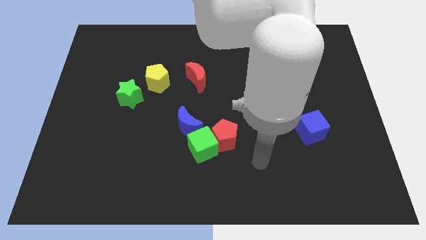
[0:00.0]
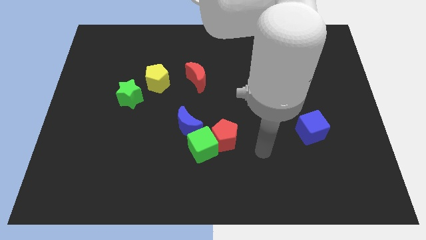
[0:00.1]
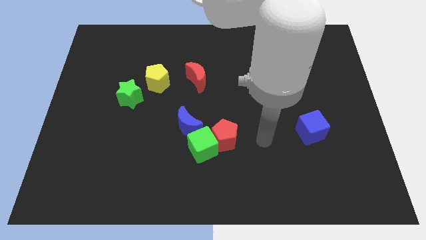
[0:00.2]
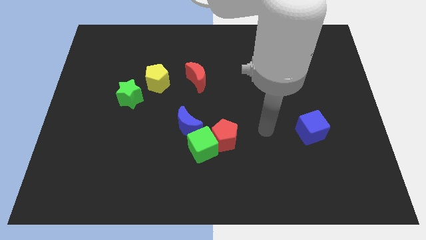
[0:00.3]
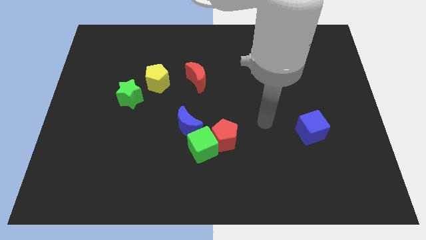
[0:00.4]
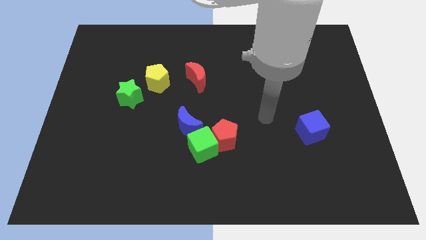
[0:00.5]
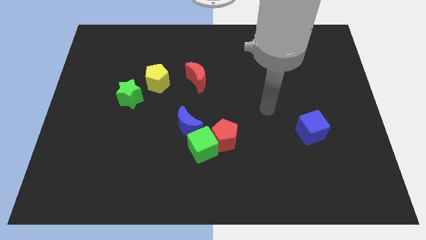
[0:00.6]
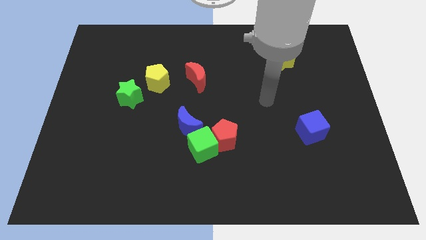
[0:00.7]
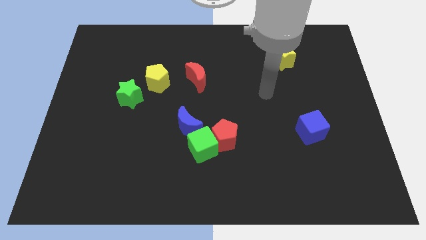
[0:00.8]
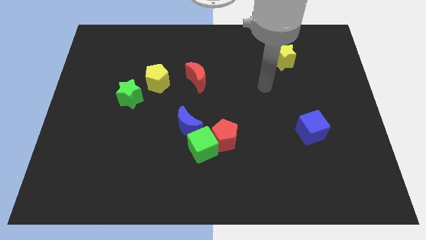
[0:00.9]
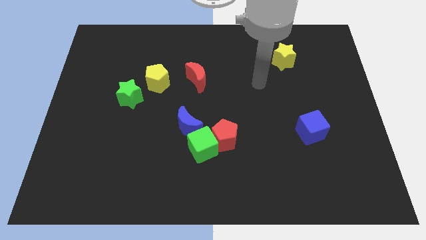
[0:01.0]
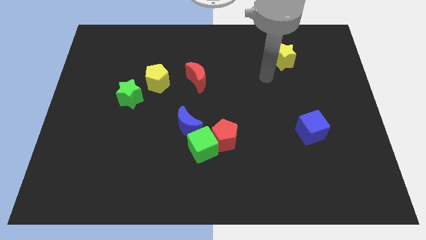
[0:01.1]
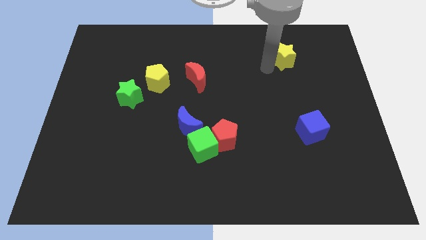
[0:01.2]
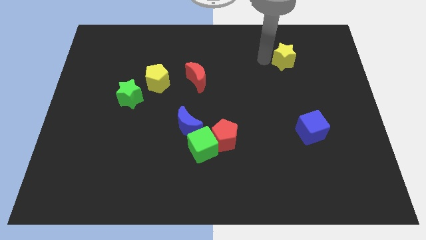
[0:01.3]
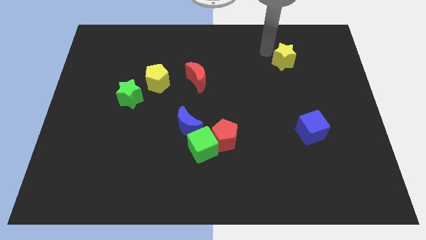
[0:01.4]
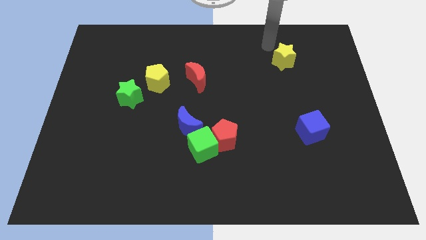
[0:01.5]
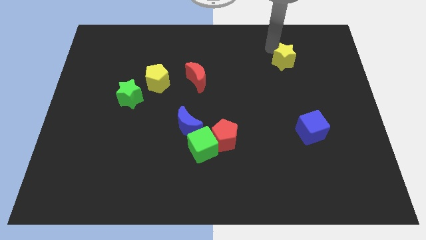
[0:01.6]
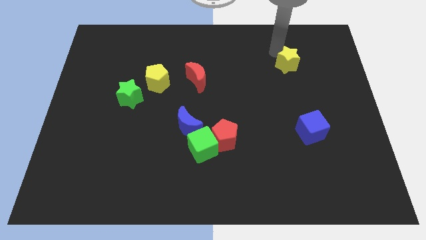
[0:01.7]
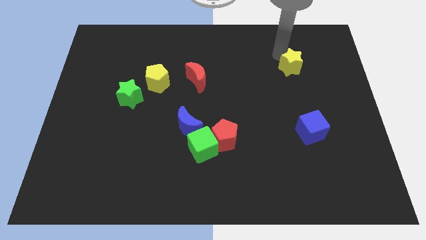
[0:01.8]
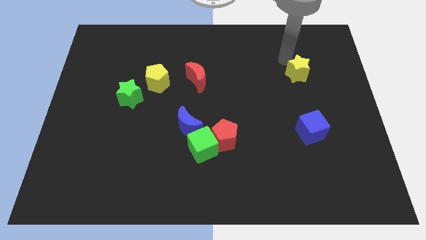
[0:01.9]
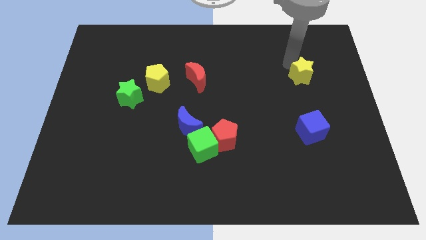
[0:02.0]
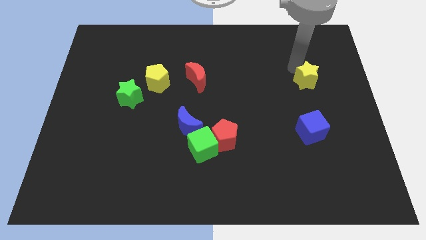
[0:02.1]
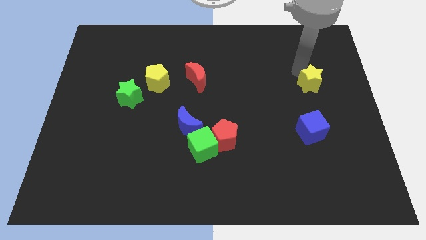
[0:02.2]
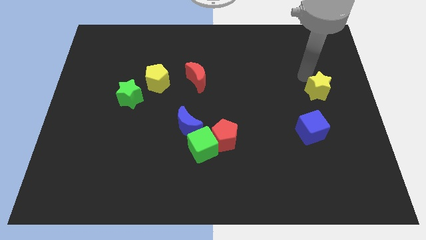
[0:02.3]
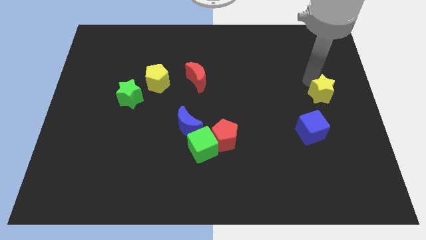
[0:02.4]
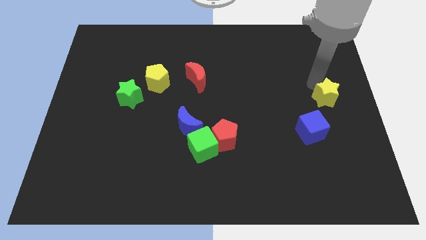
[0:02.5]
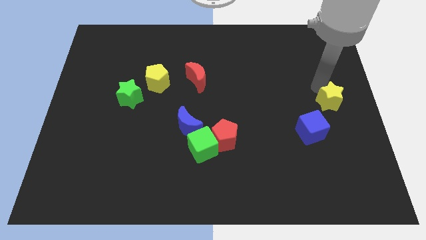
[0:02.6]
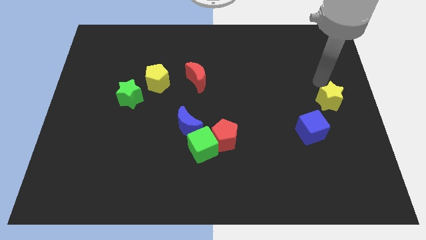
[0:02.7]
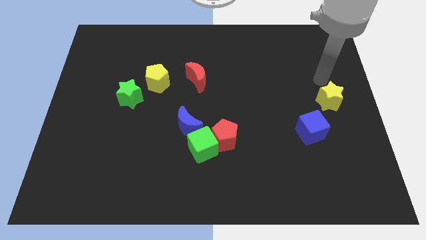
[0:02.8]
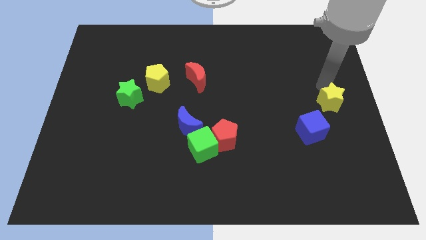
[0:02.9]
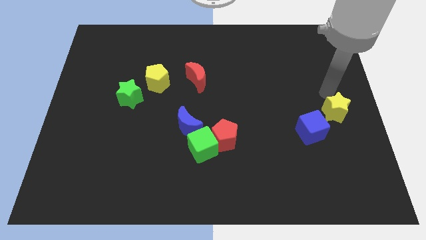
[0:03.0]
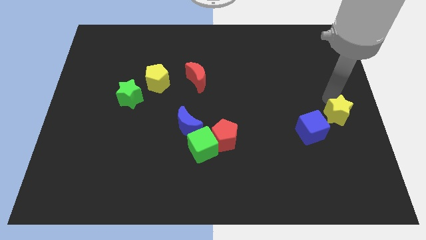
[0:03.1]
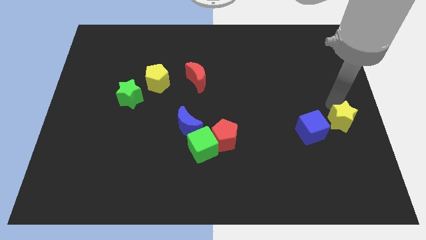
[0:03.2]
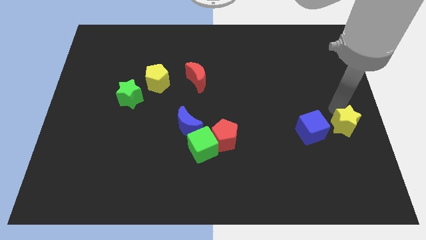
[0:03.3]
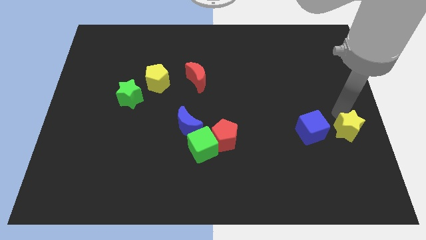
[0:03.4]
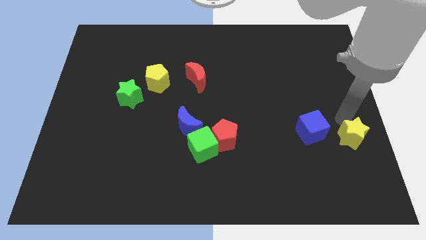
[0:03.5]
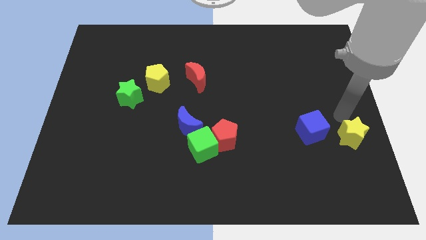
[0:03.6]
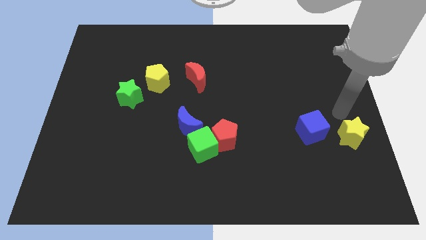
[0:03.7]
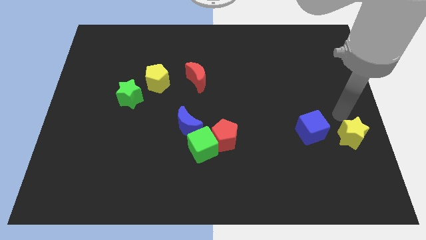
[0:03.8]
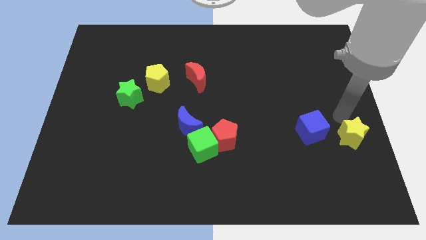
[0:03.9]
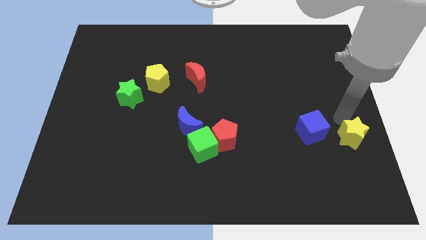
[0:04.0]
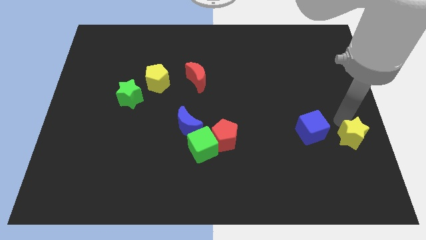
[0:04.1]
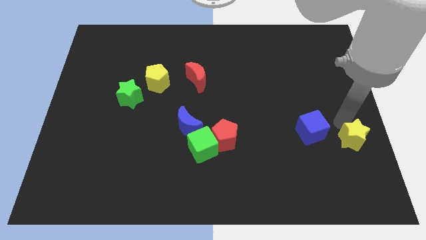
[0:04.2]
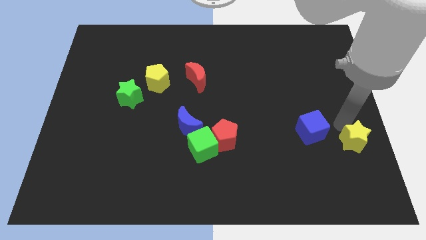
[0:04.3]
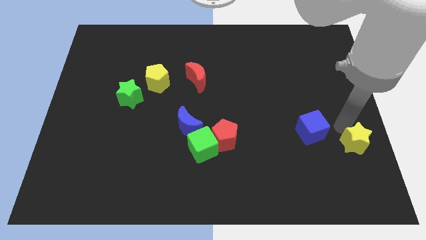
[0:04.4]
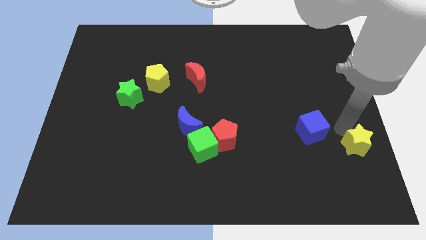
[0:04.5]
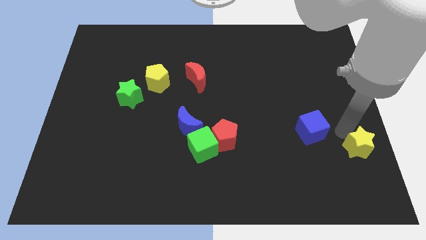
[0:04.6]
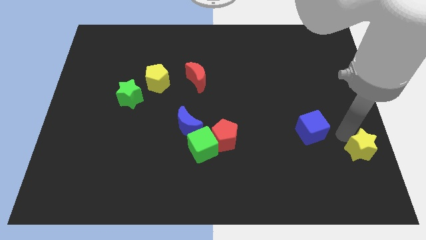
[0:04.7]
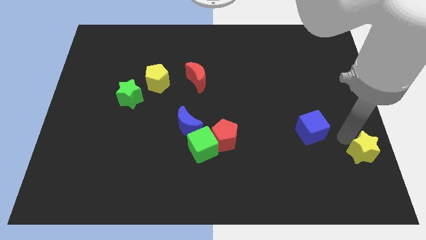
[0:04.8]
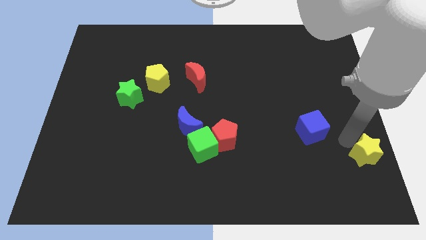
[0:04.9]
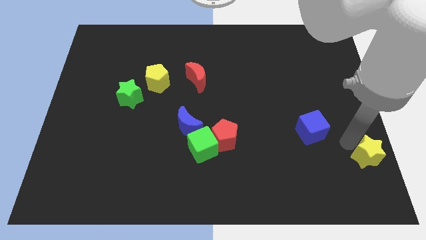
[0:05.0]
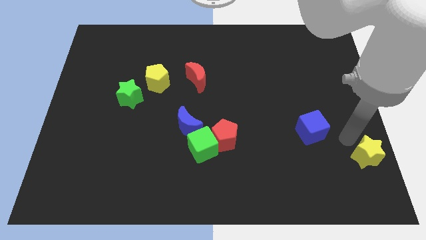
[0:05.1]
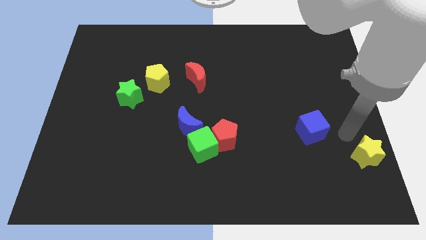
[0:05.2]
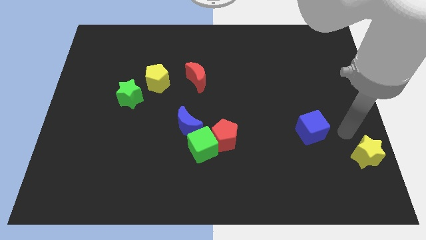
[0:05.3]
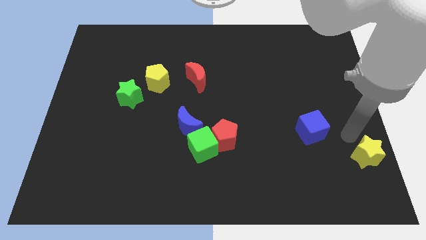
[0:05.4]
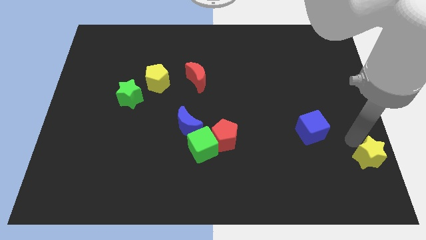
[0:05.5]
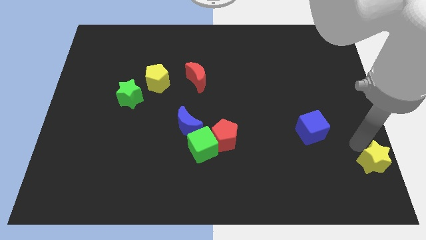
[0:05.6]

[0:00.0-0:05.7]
move the yellow star to the lower right corner

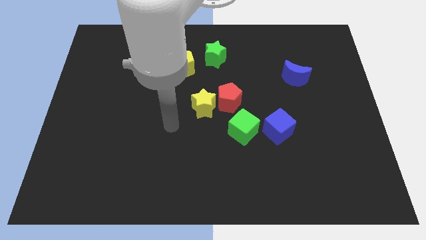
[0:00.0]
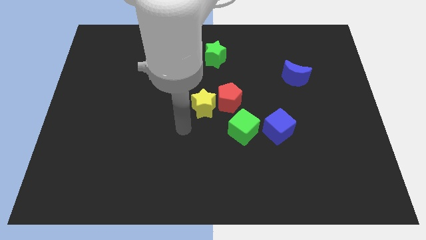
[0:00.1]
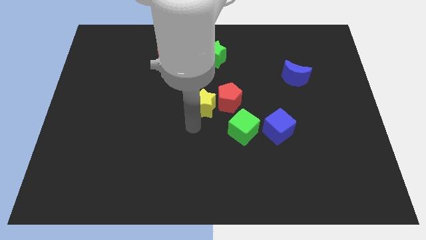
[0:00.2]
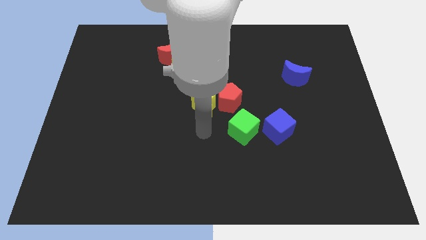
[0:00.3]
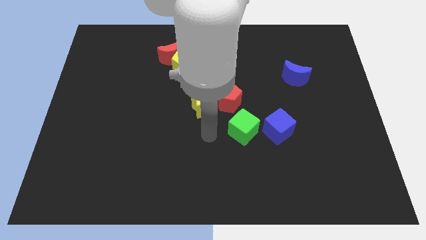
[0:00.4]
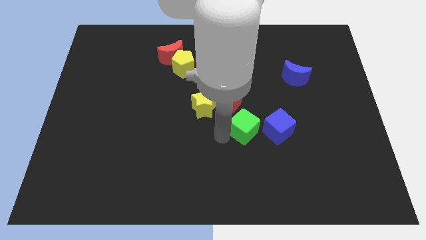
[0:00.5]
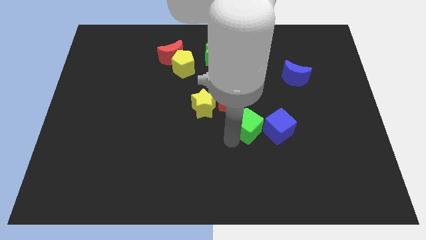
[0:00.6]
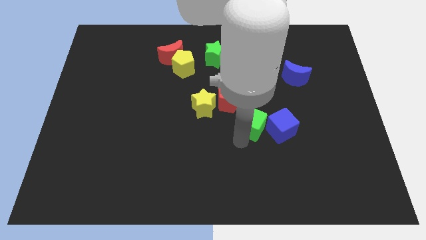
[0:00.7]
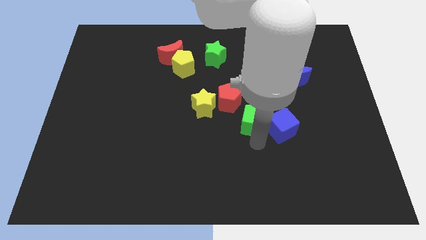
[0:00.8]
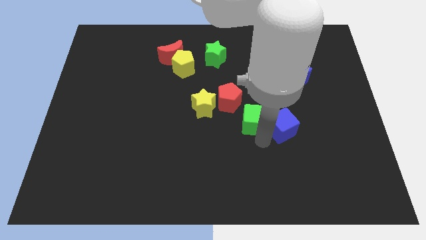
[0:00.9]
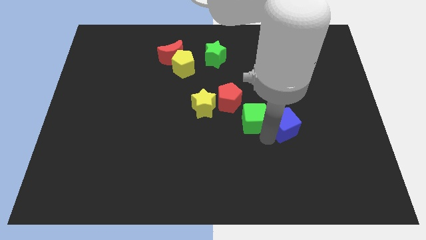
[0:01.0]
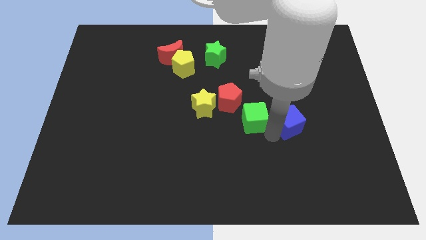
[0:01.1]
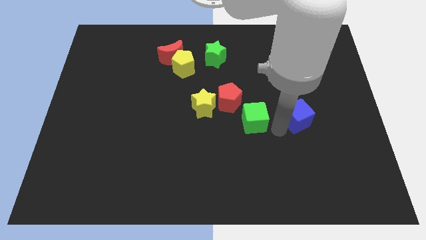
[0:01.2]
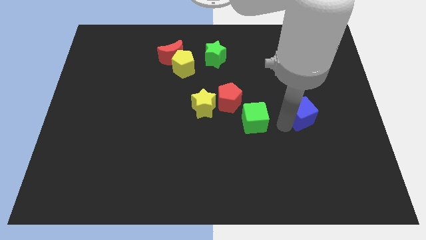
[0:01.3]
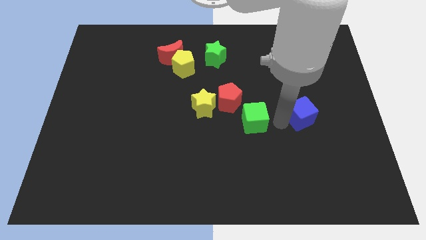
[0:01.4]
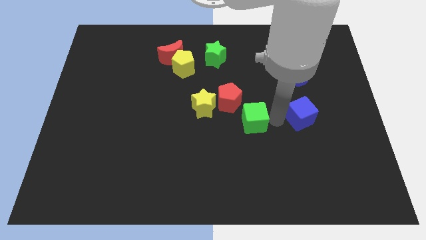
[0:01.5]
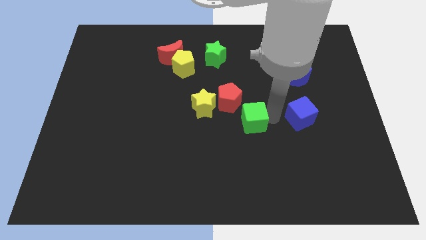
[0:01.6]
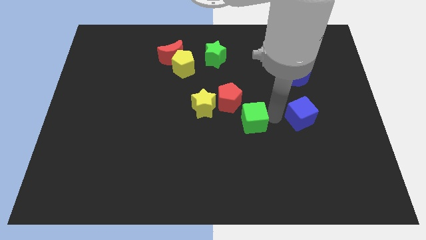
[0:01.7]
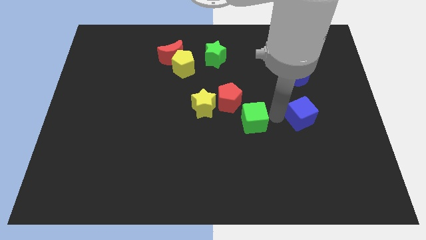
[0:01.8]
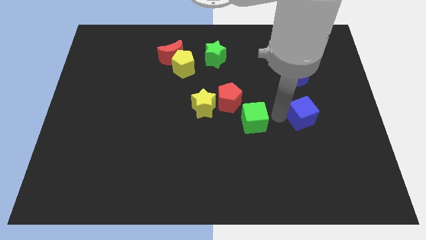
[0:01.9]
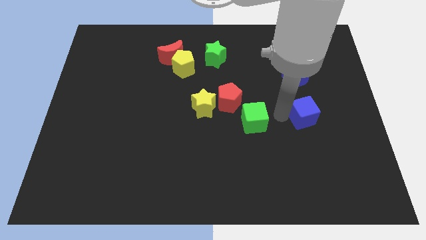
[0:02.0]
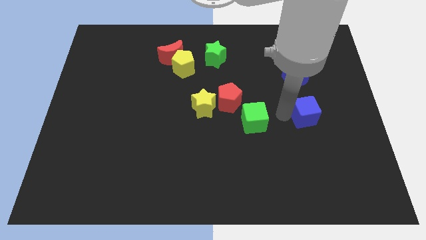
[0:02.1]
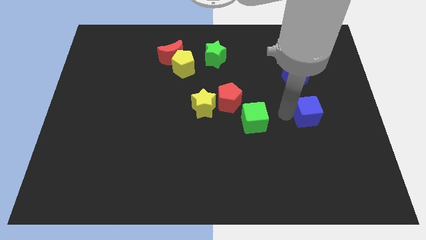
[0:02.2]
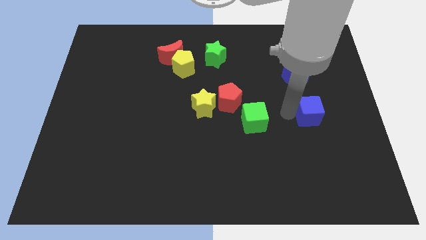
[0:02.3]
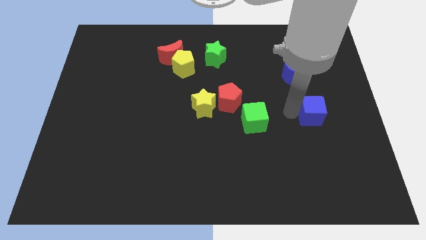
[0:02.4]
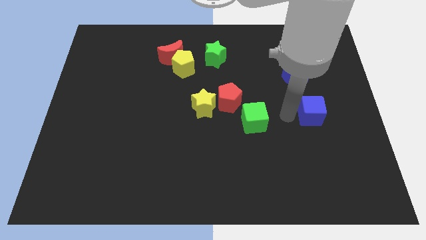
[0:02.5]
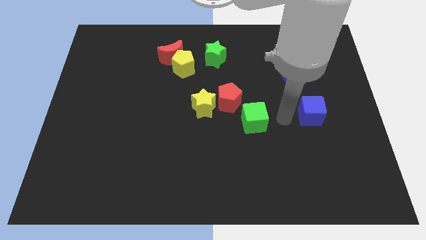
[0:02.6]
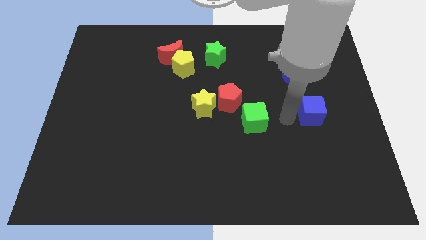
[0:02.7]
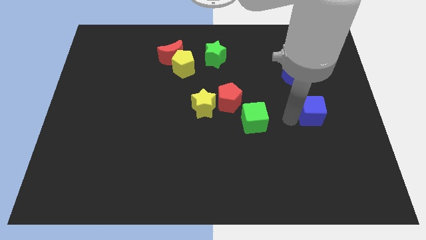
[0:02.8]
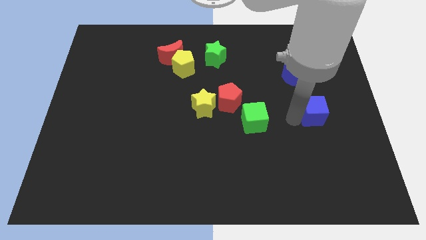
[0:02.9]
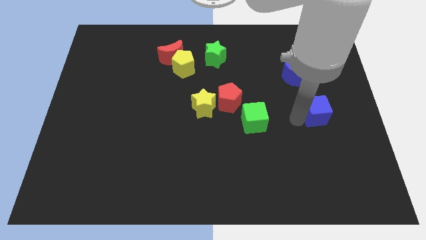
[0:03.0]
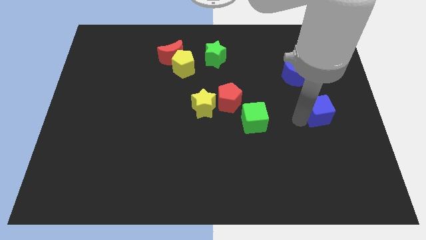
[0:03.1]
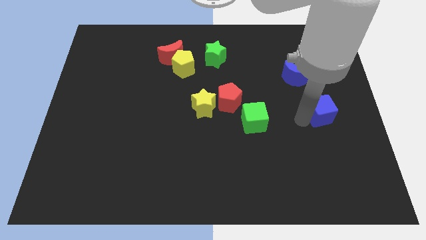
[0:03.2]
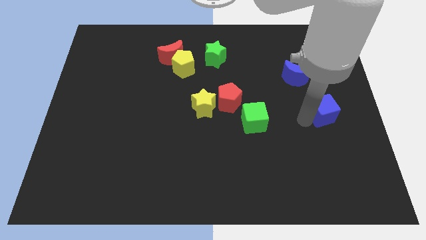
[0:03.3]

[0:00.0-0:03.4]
put the blue cube to the right side
